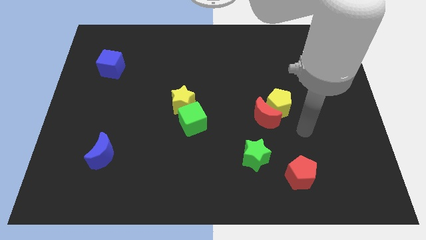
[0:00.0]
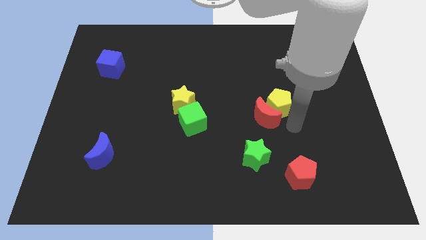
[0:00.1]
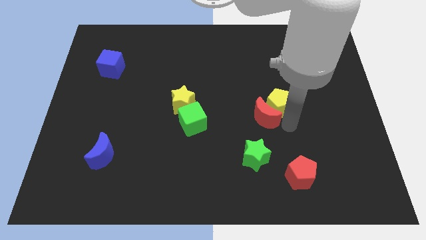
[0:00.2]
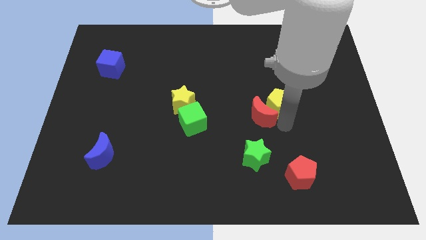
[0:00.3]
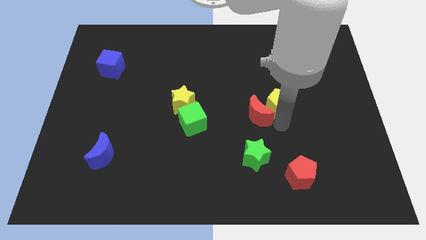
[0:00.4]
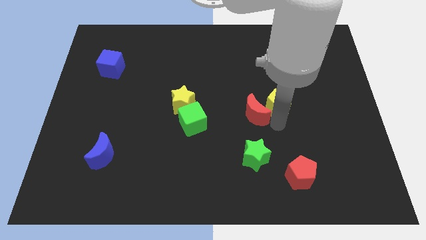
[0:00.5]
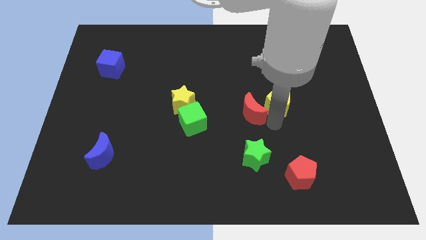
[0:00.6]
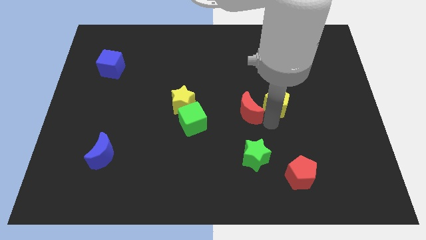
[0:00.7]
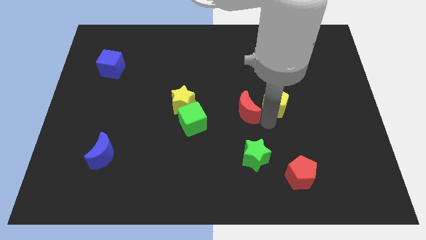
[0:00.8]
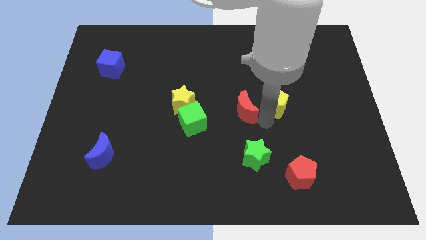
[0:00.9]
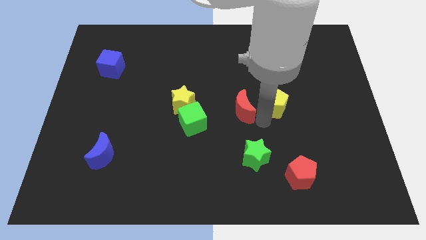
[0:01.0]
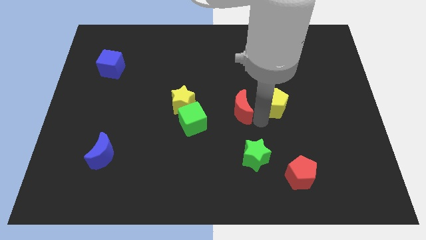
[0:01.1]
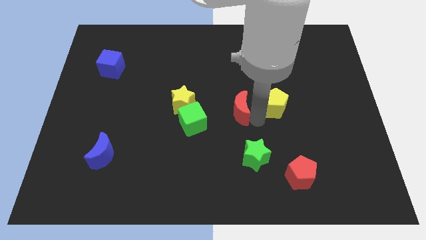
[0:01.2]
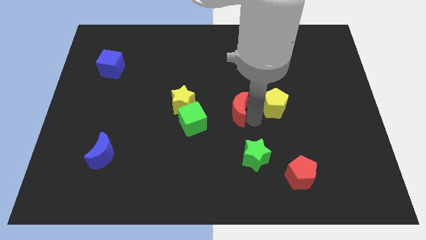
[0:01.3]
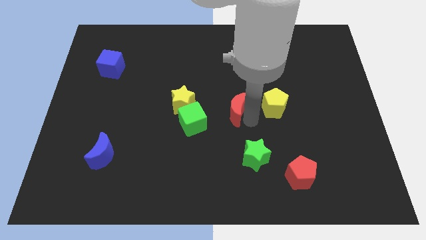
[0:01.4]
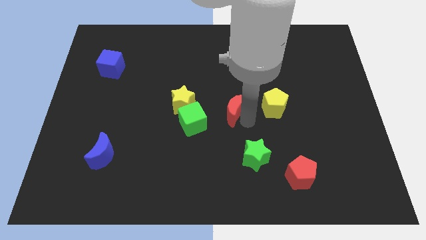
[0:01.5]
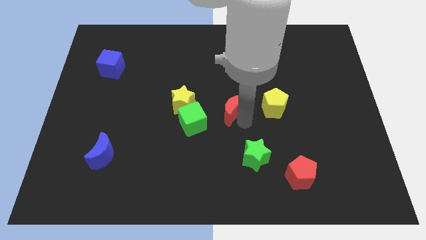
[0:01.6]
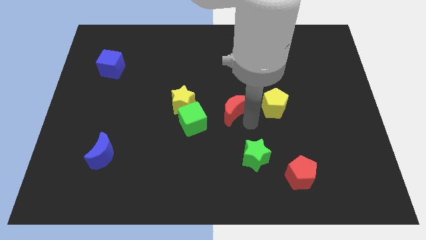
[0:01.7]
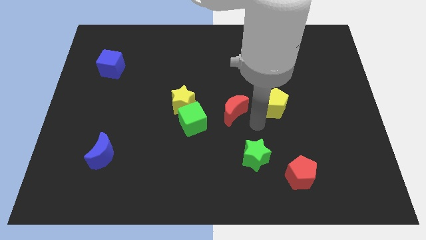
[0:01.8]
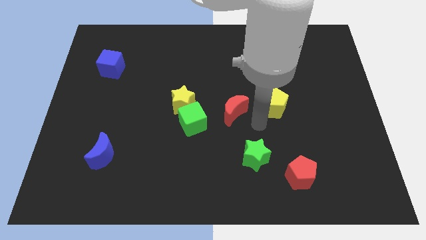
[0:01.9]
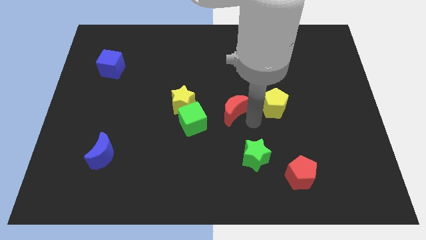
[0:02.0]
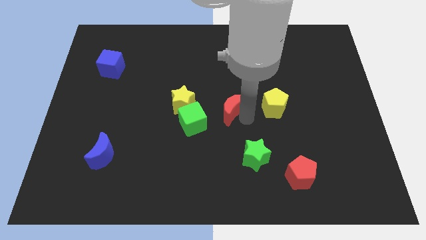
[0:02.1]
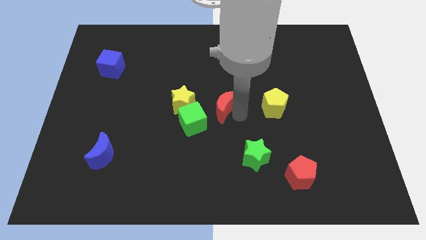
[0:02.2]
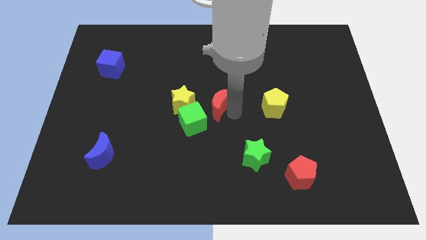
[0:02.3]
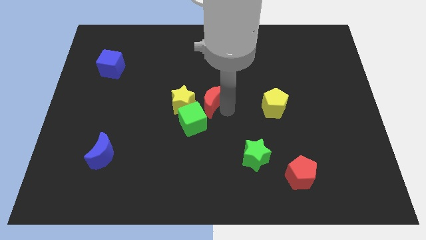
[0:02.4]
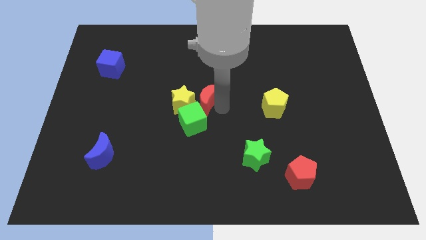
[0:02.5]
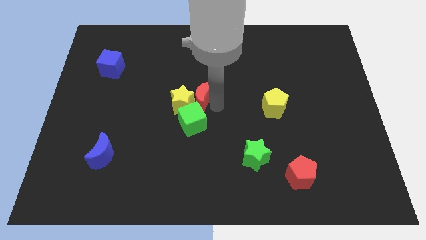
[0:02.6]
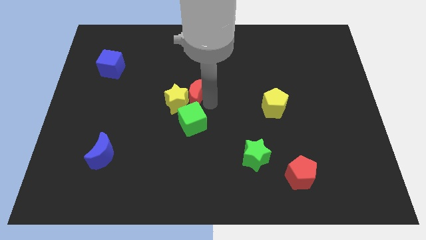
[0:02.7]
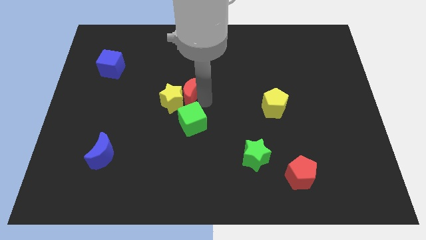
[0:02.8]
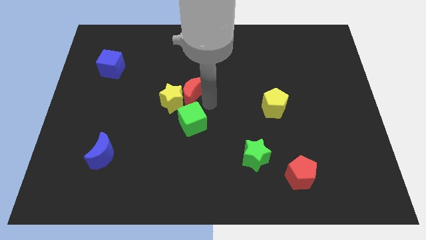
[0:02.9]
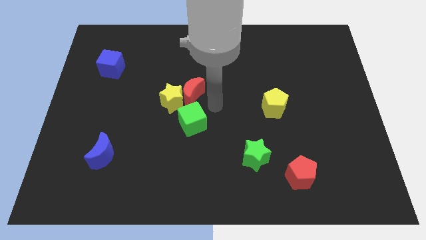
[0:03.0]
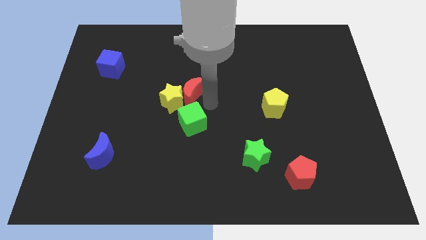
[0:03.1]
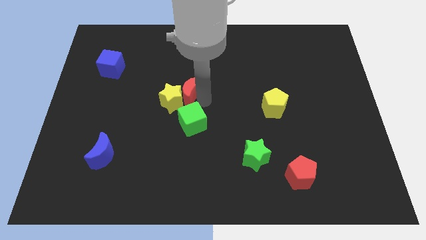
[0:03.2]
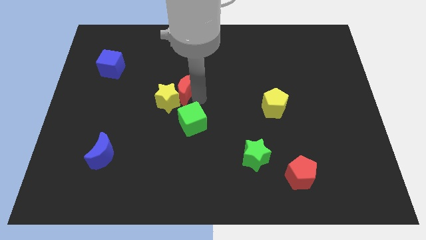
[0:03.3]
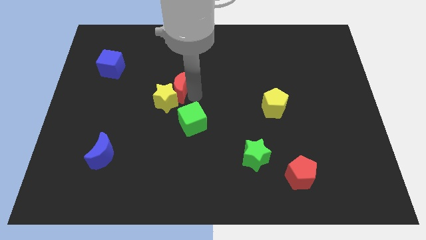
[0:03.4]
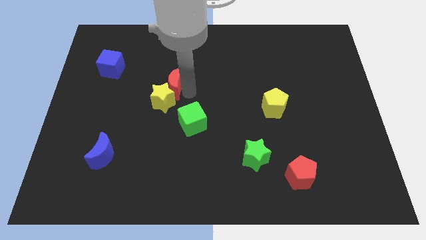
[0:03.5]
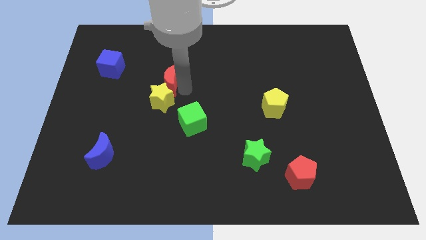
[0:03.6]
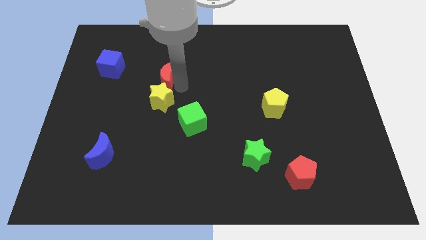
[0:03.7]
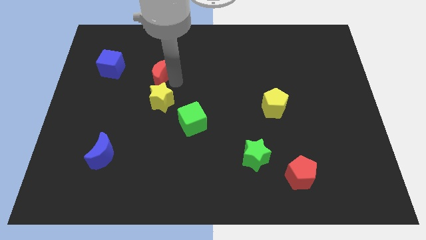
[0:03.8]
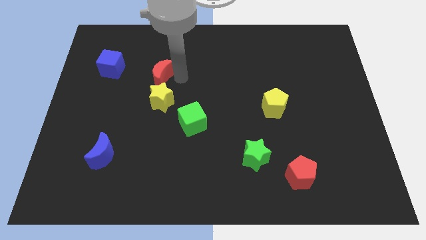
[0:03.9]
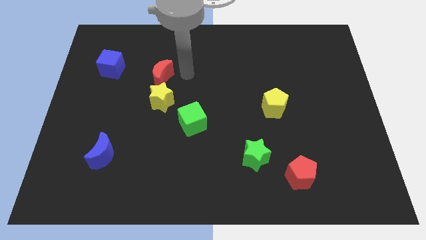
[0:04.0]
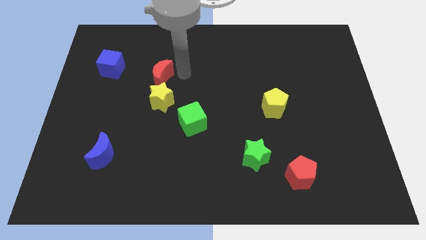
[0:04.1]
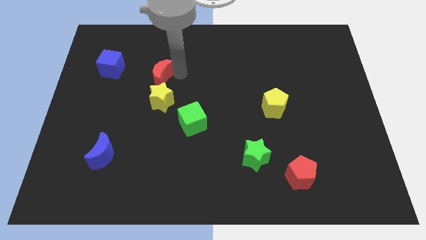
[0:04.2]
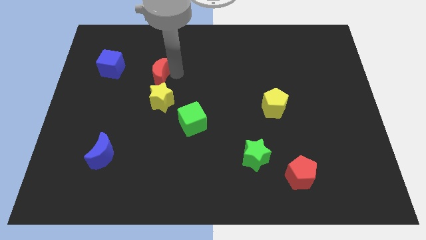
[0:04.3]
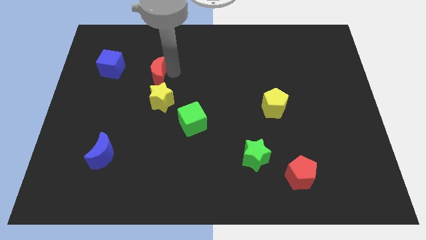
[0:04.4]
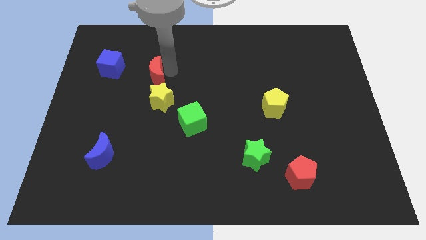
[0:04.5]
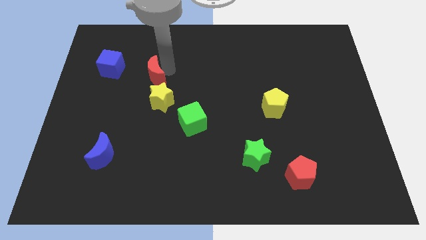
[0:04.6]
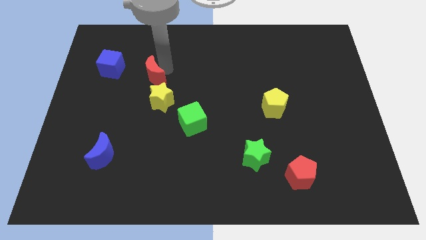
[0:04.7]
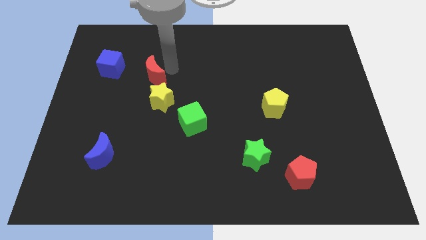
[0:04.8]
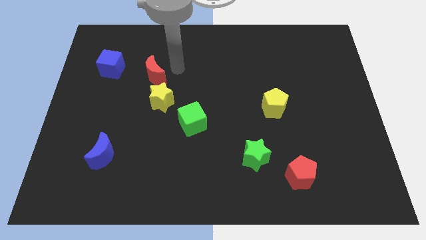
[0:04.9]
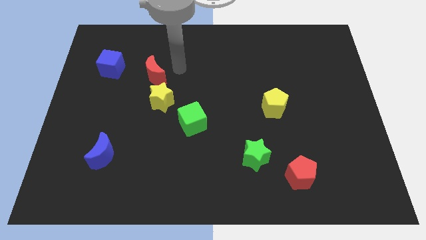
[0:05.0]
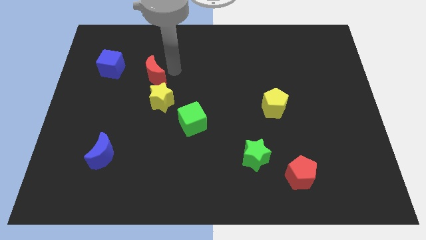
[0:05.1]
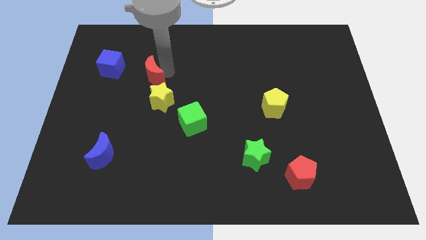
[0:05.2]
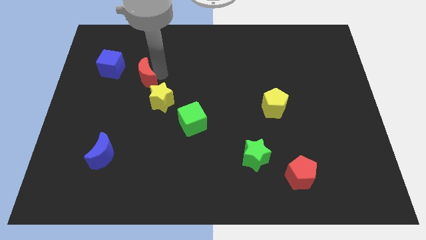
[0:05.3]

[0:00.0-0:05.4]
slide the red moon to the bottom right side of the blue cube

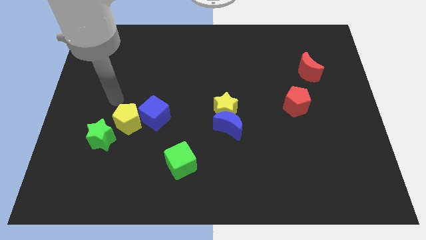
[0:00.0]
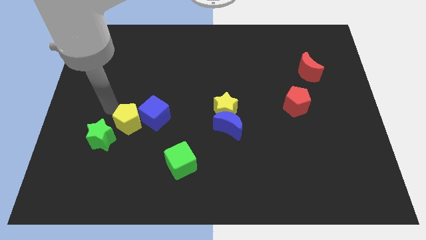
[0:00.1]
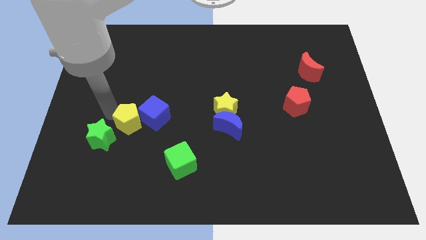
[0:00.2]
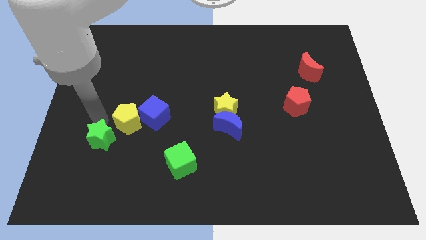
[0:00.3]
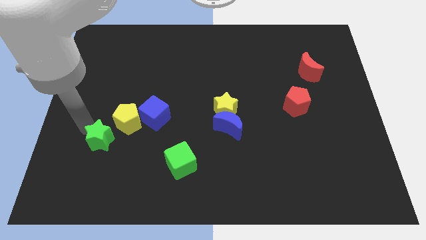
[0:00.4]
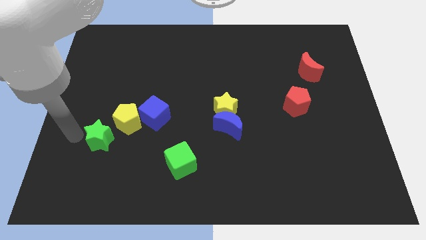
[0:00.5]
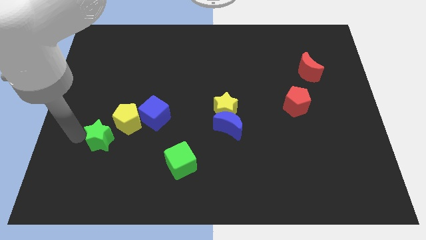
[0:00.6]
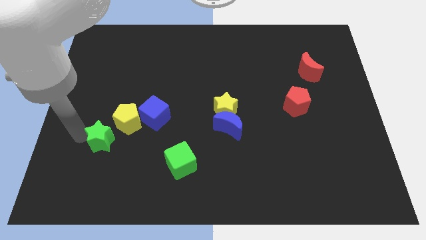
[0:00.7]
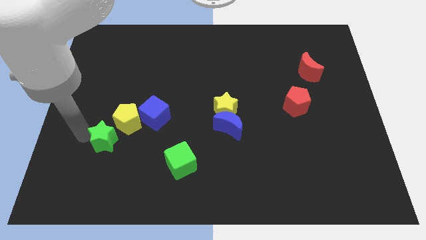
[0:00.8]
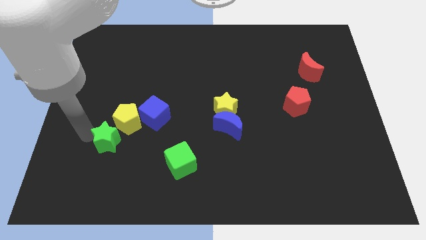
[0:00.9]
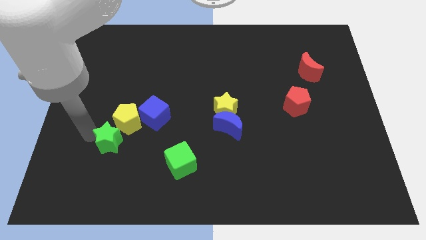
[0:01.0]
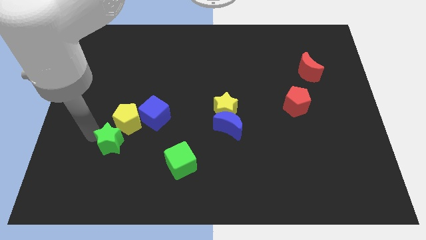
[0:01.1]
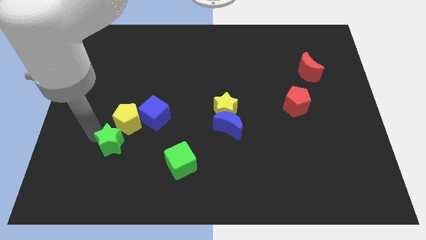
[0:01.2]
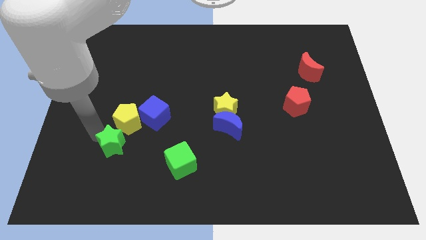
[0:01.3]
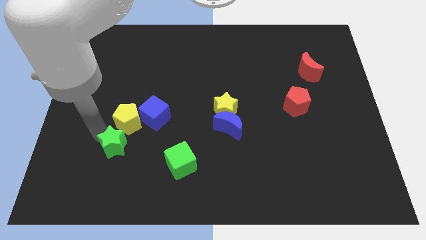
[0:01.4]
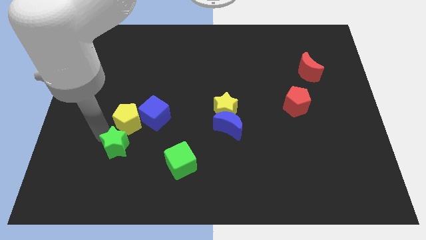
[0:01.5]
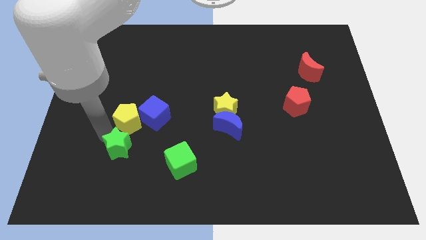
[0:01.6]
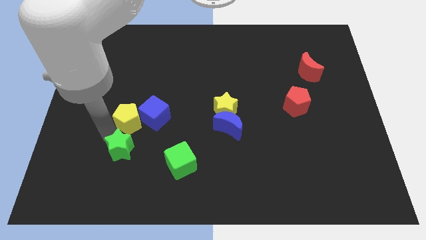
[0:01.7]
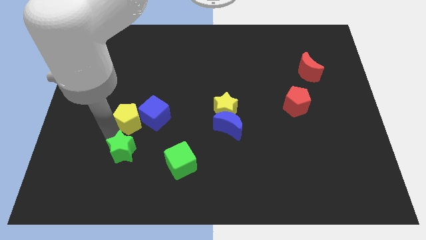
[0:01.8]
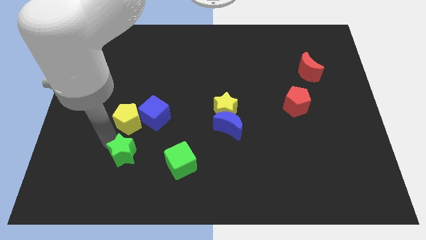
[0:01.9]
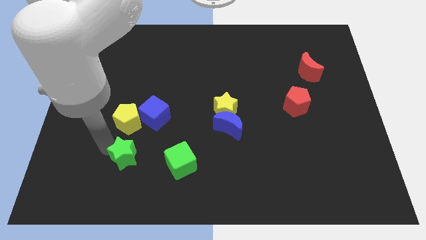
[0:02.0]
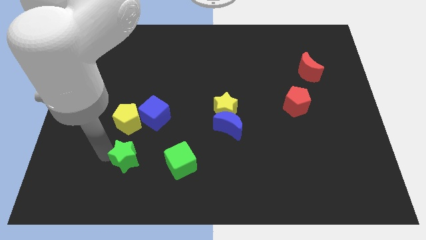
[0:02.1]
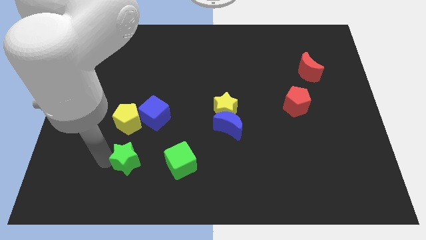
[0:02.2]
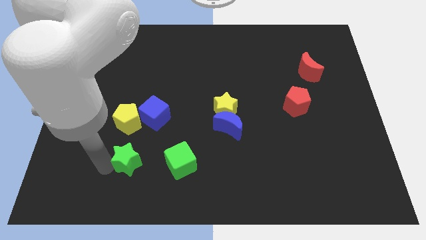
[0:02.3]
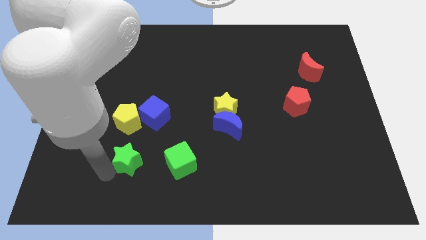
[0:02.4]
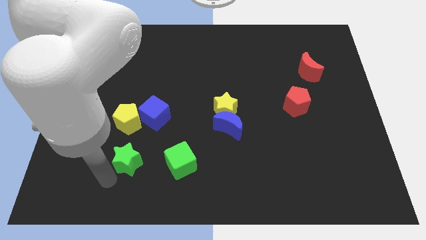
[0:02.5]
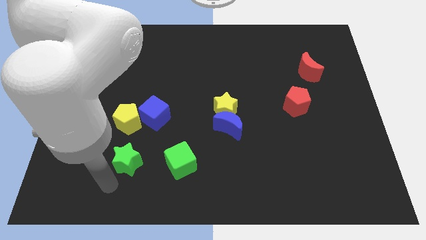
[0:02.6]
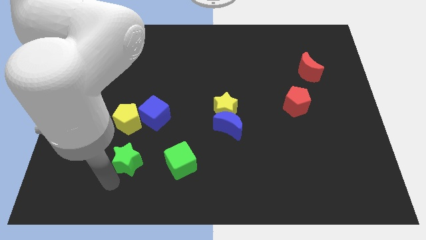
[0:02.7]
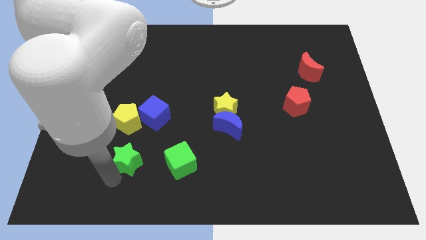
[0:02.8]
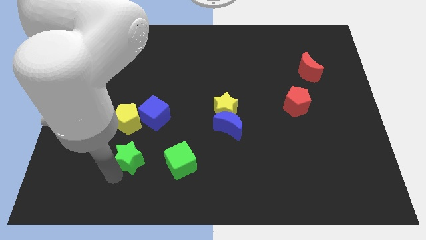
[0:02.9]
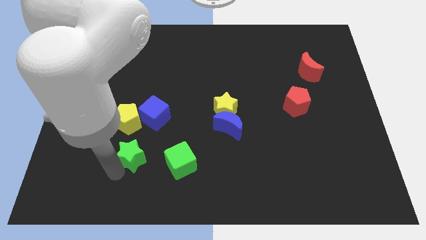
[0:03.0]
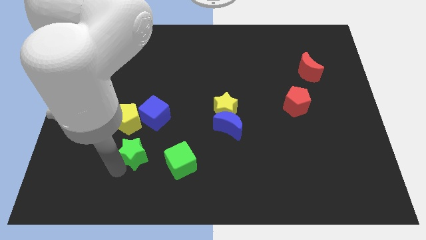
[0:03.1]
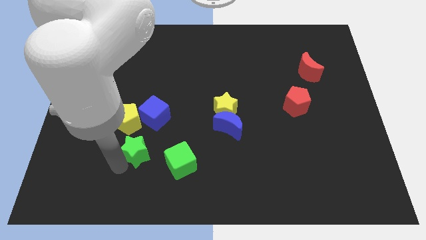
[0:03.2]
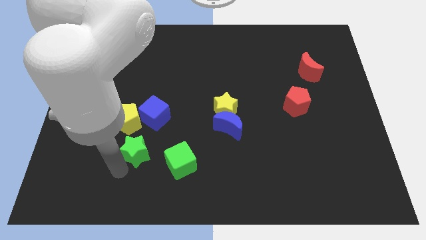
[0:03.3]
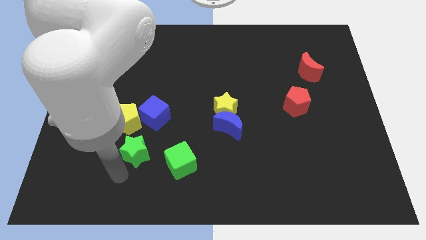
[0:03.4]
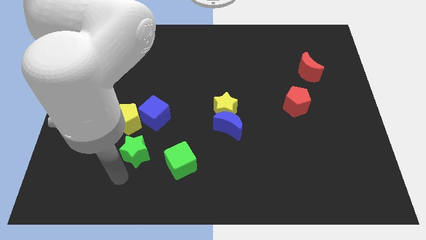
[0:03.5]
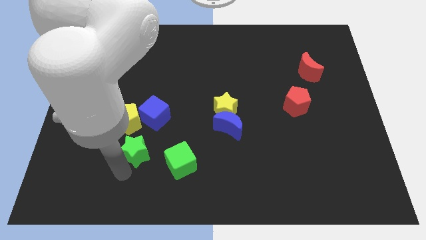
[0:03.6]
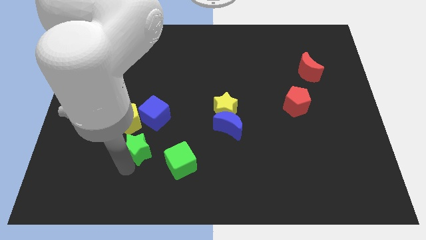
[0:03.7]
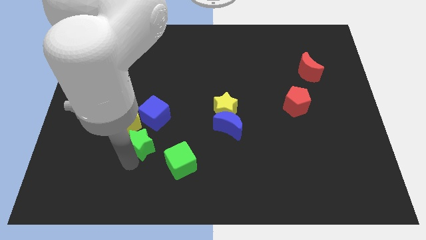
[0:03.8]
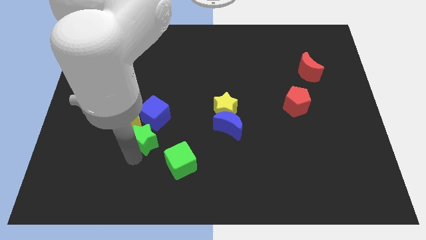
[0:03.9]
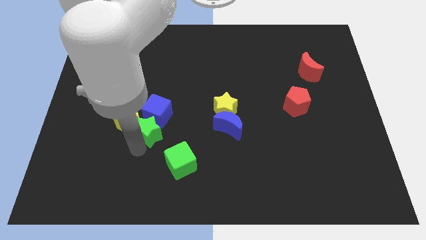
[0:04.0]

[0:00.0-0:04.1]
move the green star just right of the yellow pentagon
